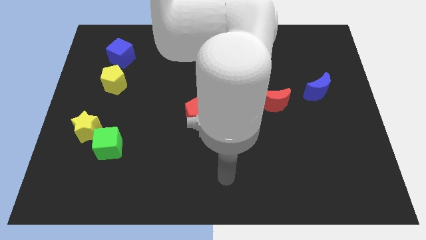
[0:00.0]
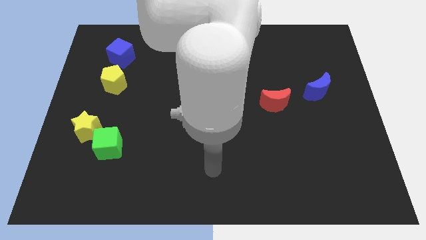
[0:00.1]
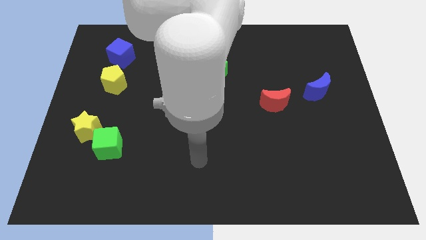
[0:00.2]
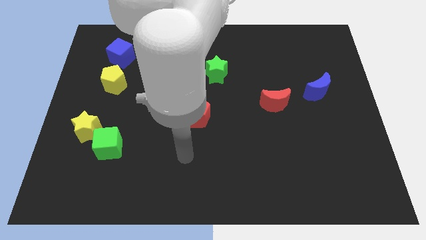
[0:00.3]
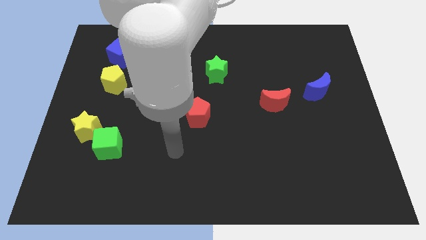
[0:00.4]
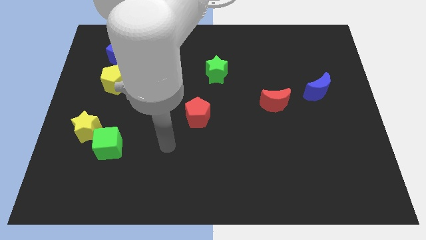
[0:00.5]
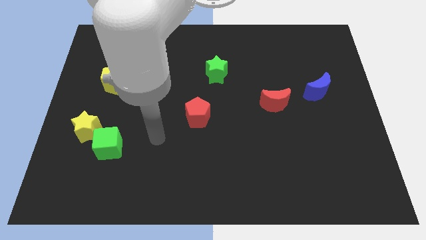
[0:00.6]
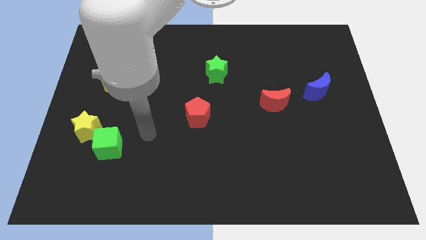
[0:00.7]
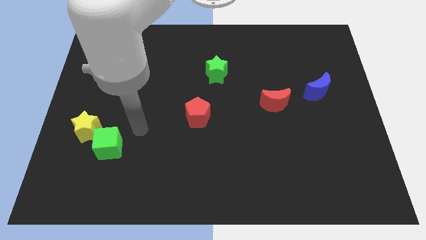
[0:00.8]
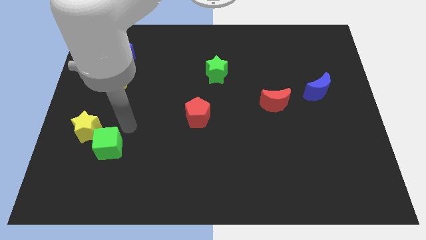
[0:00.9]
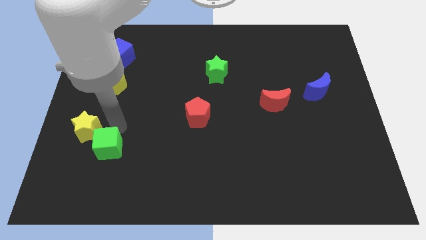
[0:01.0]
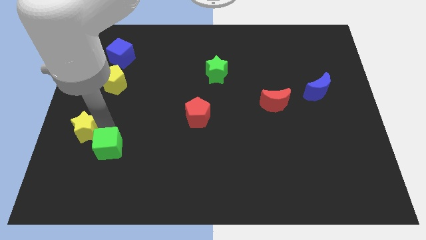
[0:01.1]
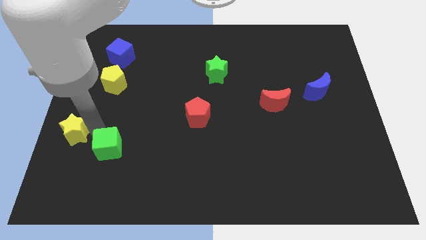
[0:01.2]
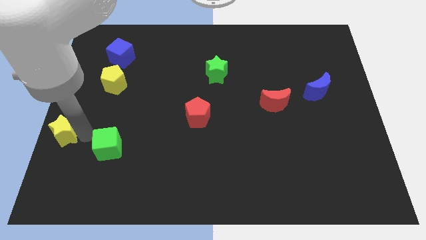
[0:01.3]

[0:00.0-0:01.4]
move the green cube away from the yellow star

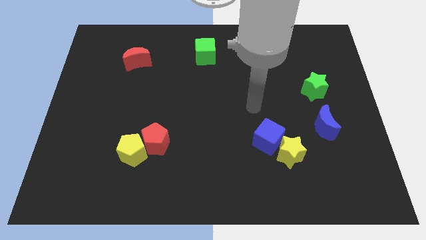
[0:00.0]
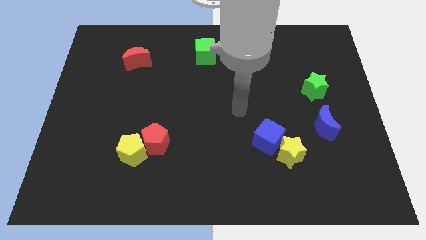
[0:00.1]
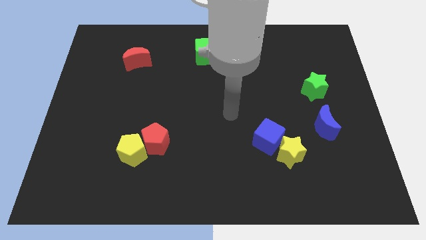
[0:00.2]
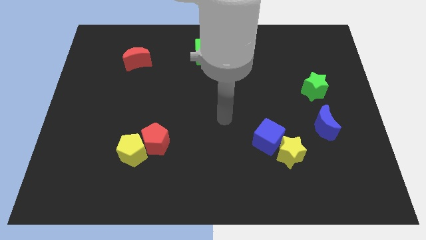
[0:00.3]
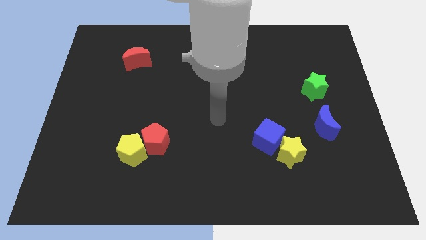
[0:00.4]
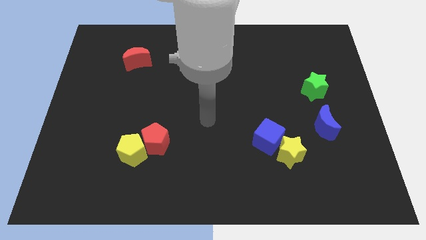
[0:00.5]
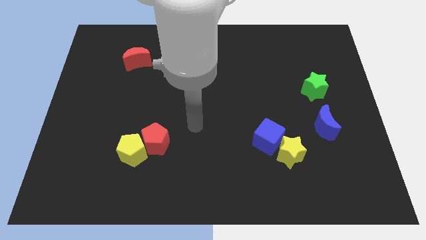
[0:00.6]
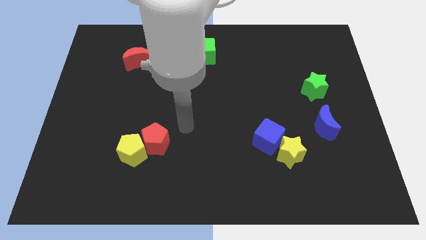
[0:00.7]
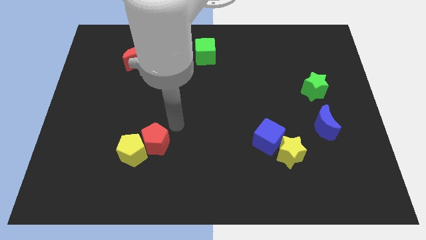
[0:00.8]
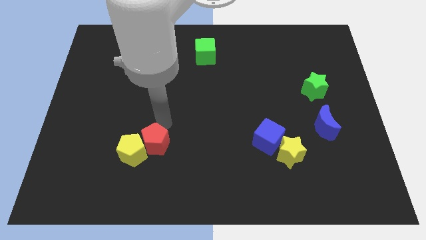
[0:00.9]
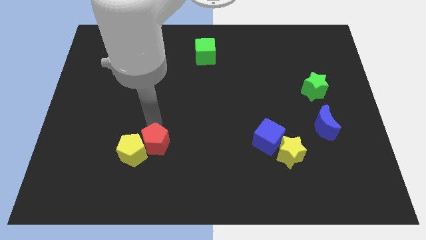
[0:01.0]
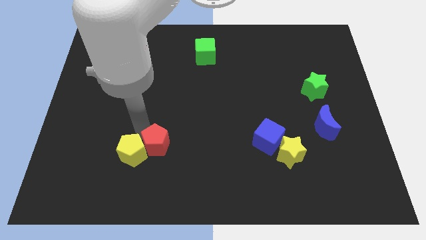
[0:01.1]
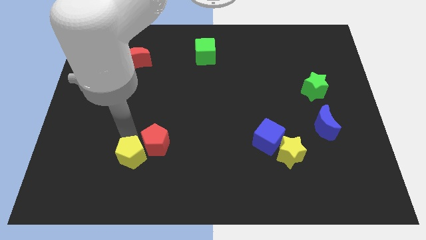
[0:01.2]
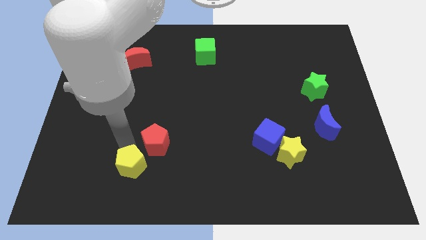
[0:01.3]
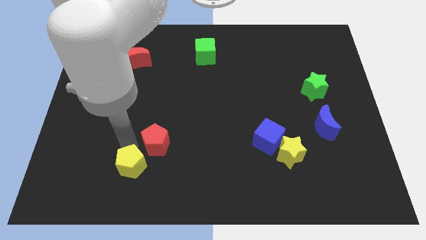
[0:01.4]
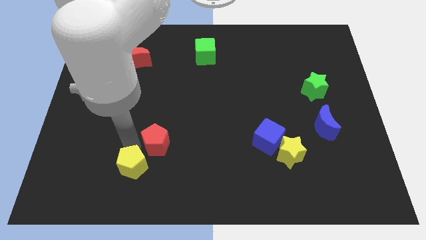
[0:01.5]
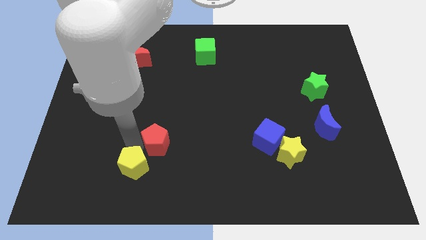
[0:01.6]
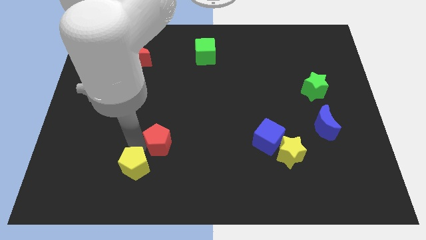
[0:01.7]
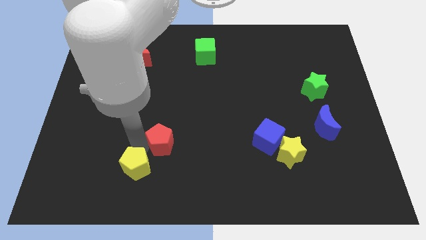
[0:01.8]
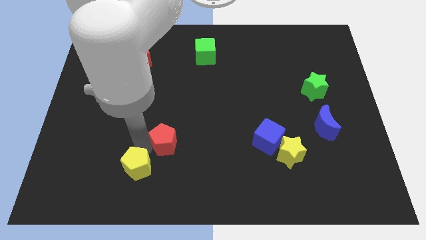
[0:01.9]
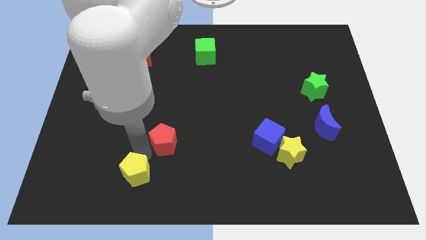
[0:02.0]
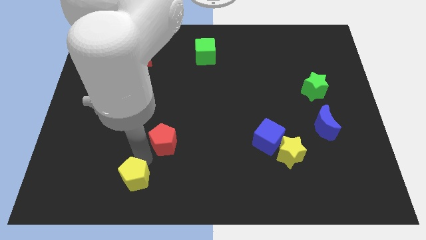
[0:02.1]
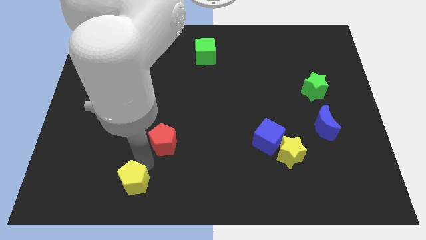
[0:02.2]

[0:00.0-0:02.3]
move the red pentagon away from the yellow pentagon

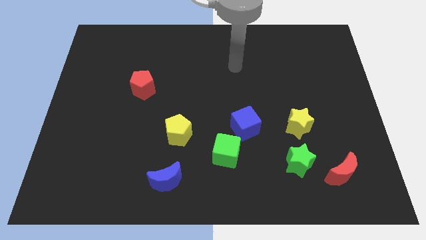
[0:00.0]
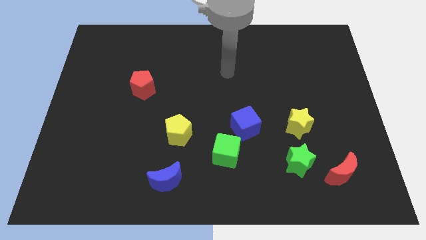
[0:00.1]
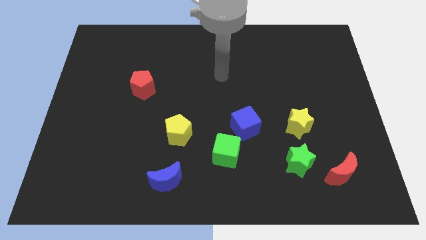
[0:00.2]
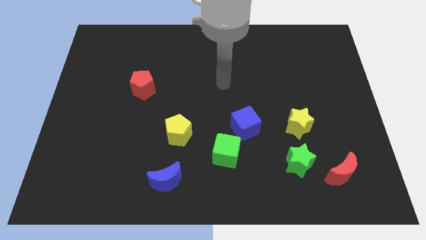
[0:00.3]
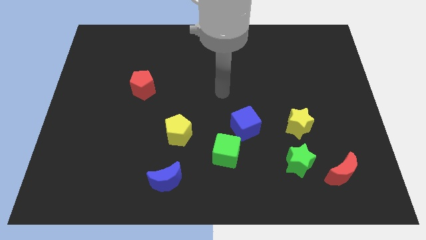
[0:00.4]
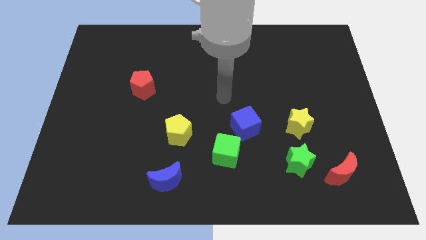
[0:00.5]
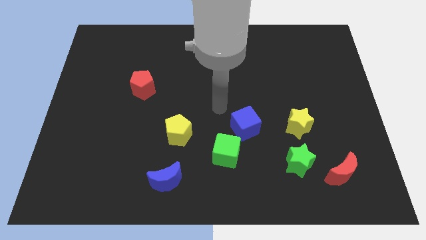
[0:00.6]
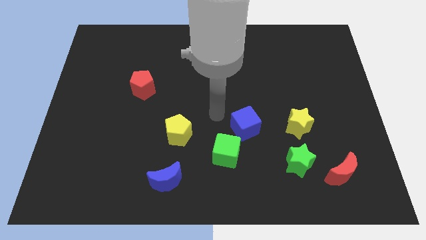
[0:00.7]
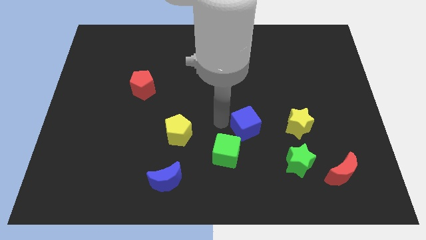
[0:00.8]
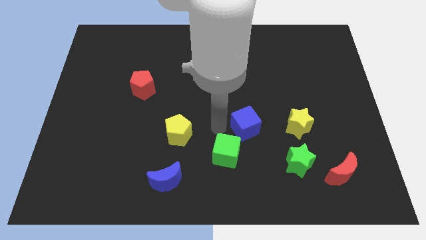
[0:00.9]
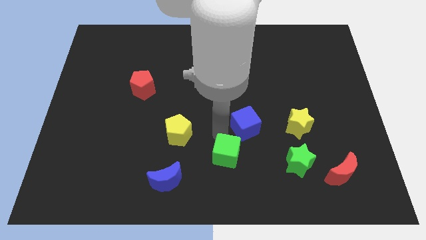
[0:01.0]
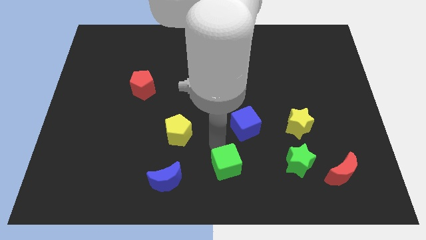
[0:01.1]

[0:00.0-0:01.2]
move the blue cube away from the green cube

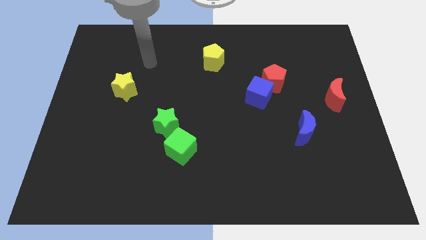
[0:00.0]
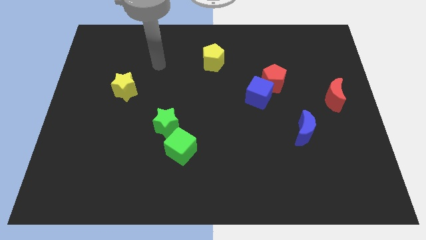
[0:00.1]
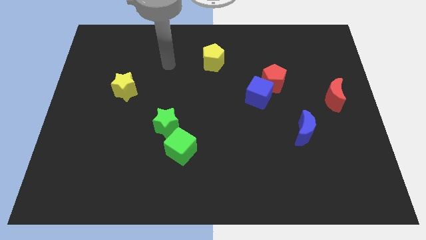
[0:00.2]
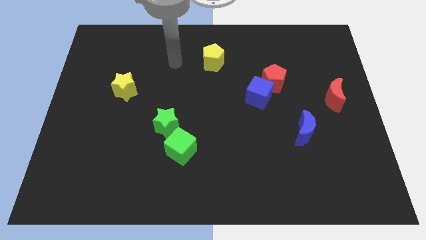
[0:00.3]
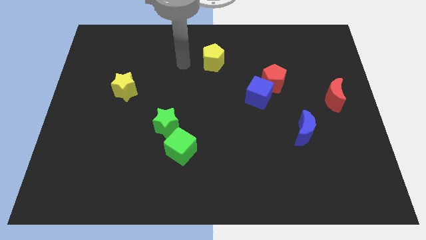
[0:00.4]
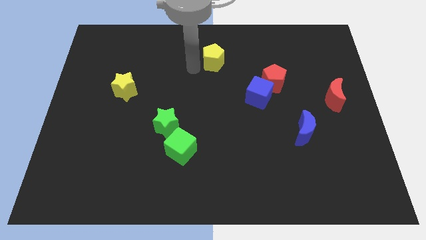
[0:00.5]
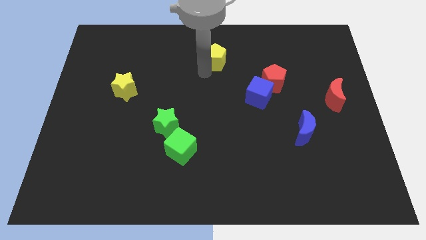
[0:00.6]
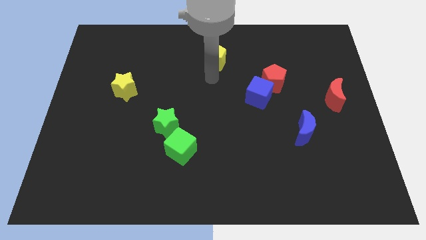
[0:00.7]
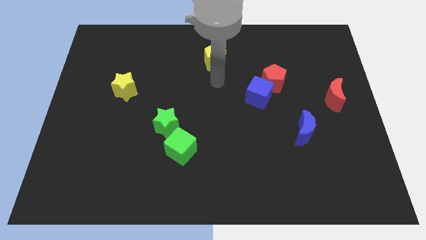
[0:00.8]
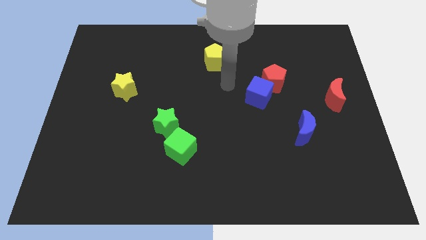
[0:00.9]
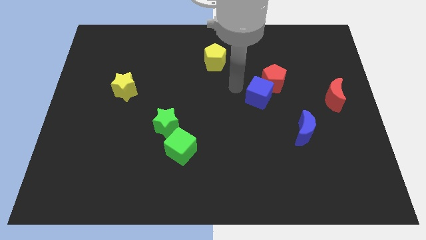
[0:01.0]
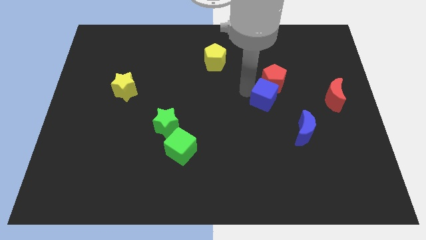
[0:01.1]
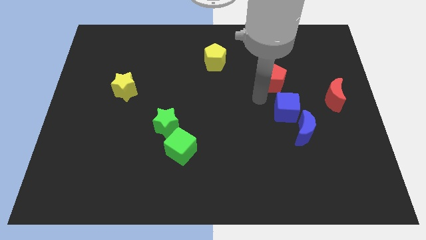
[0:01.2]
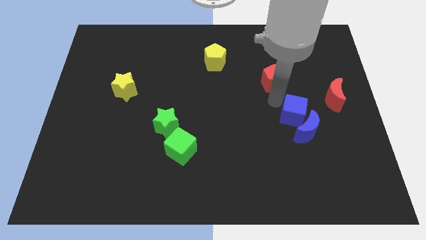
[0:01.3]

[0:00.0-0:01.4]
pull the red pentagon apart from the blue cube

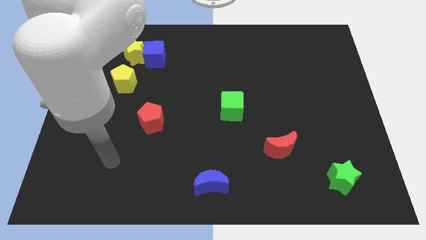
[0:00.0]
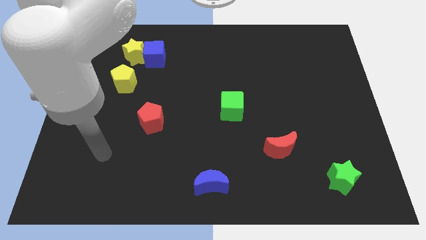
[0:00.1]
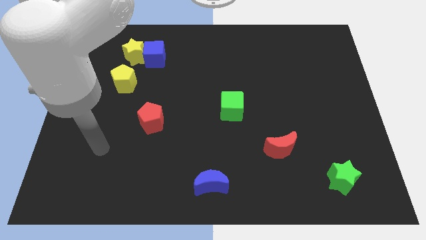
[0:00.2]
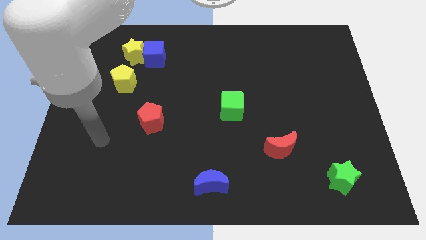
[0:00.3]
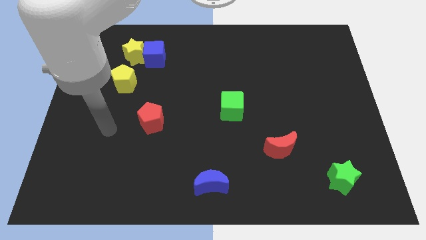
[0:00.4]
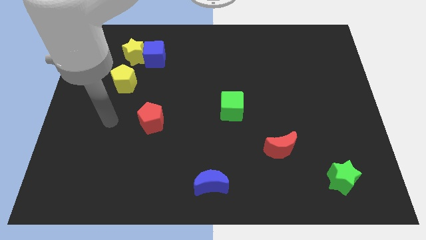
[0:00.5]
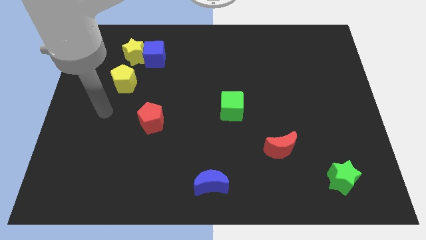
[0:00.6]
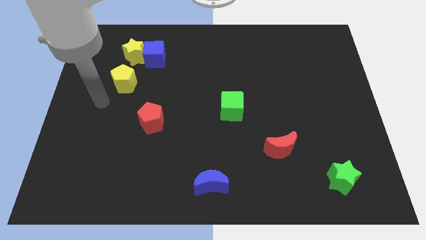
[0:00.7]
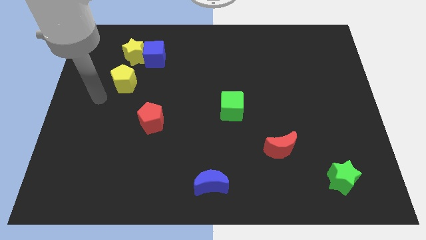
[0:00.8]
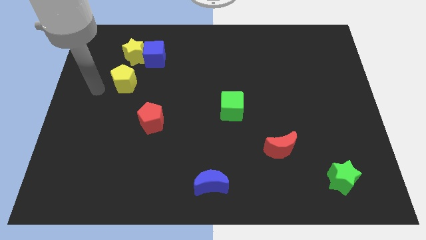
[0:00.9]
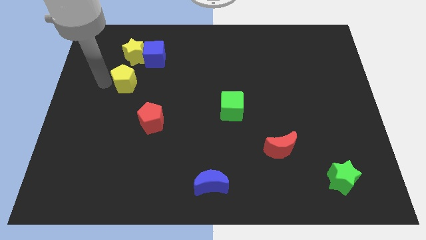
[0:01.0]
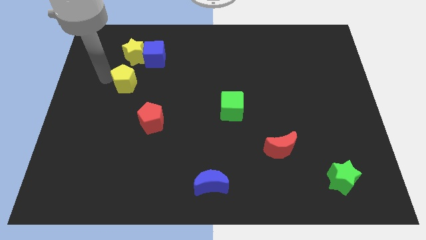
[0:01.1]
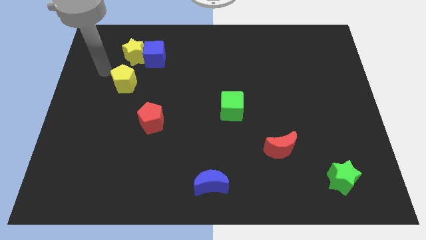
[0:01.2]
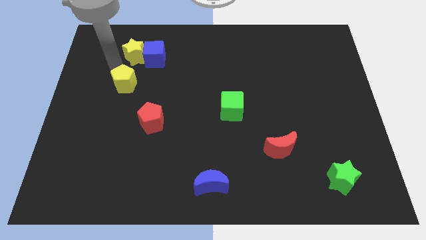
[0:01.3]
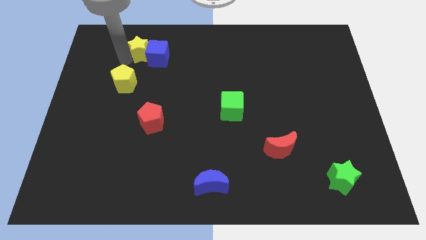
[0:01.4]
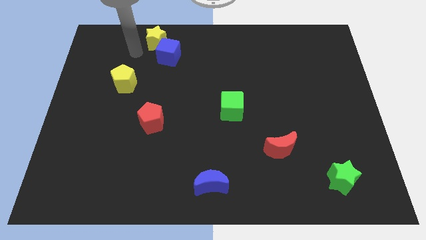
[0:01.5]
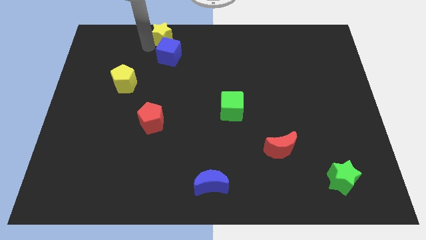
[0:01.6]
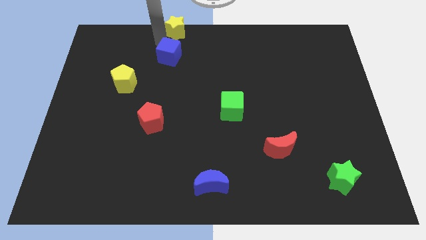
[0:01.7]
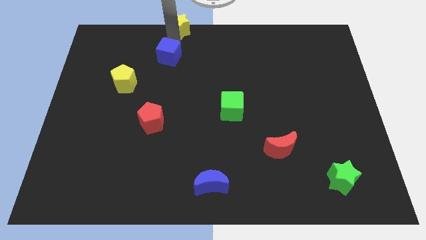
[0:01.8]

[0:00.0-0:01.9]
separate the blue cube from the yellow star

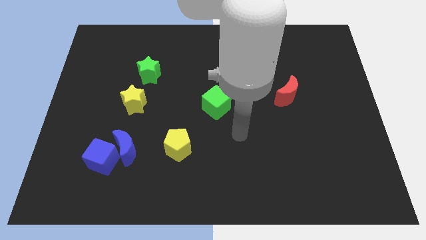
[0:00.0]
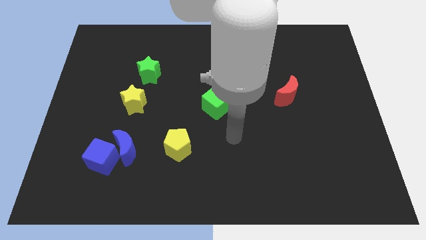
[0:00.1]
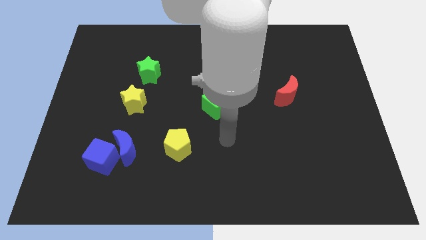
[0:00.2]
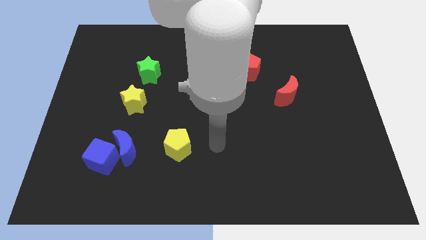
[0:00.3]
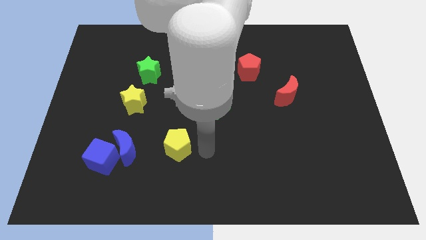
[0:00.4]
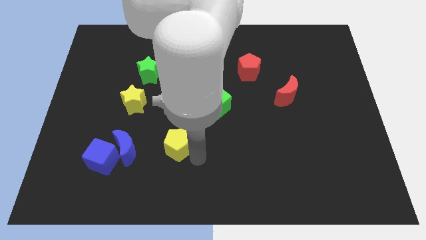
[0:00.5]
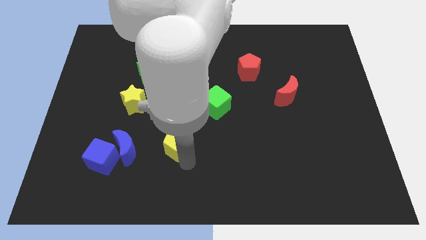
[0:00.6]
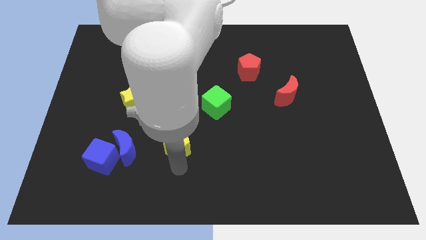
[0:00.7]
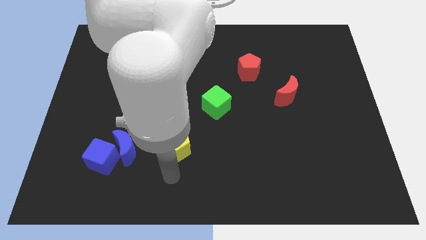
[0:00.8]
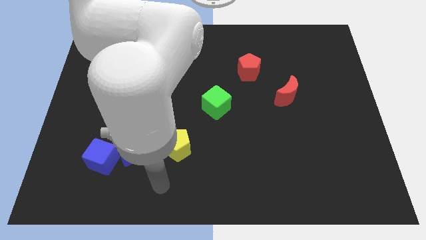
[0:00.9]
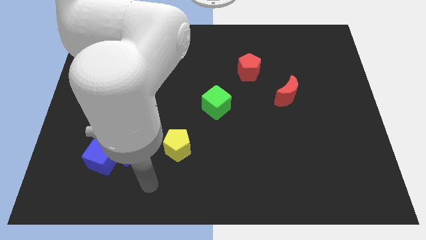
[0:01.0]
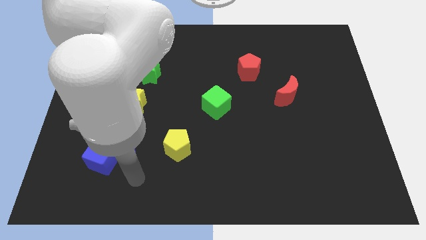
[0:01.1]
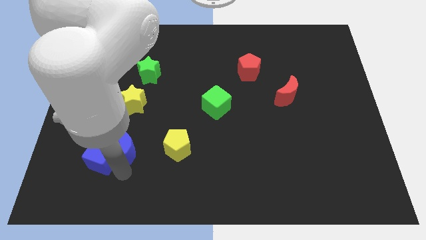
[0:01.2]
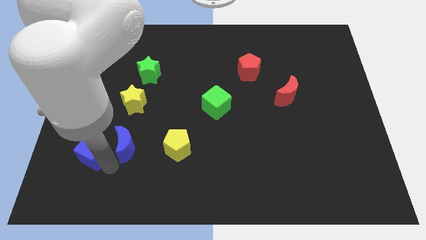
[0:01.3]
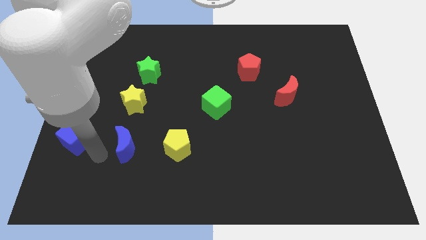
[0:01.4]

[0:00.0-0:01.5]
pull the blue moon apart from the blue cube
